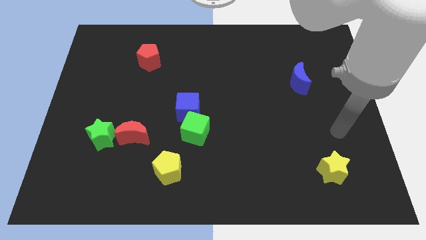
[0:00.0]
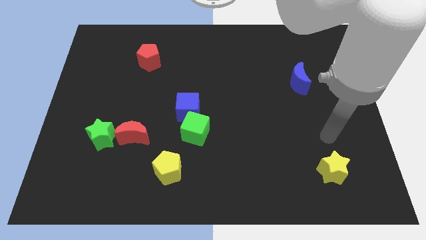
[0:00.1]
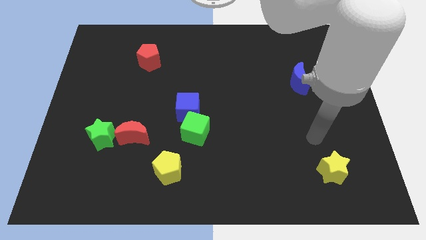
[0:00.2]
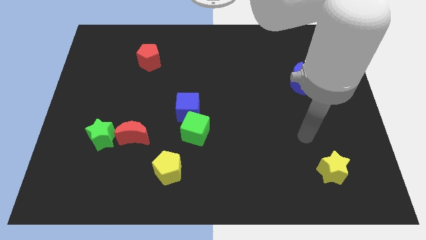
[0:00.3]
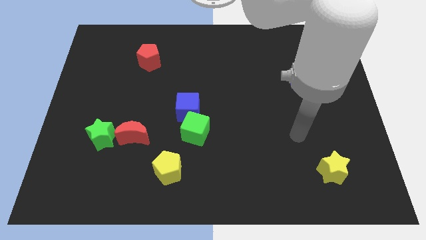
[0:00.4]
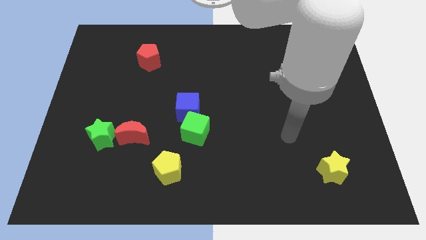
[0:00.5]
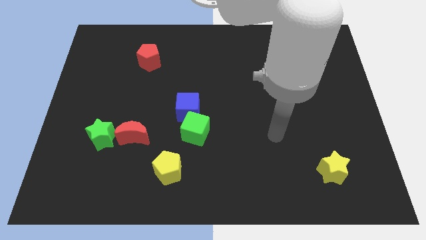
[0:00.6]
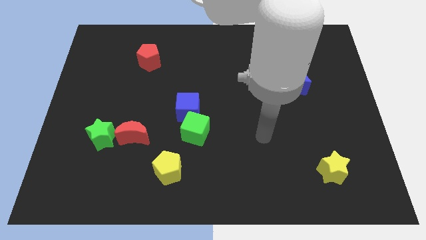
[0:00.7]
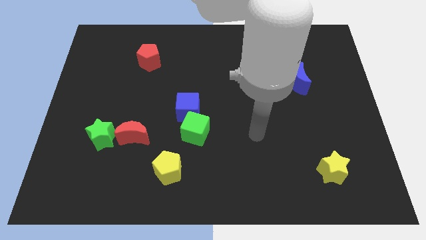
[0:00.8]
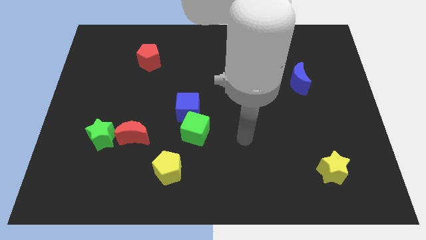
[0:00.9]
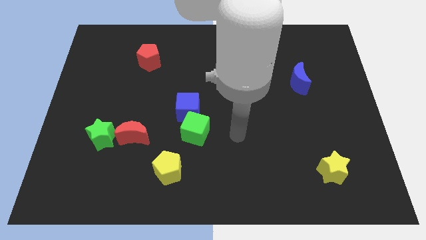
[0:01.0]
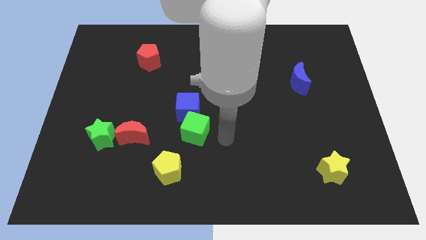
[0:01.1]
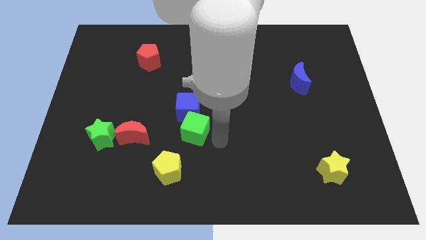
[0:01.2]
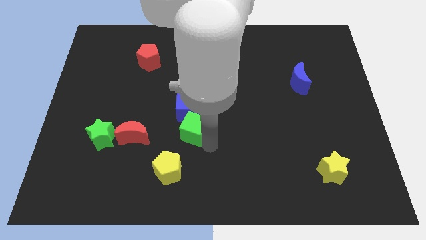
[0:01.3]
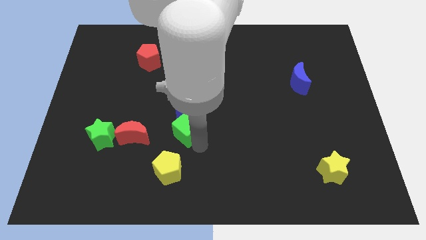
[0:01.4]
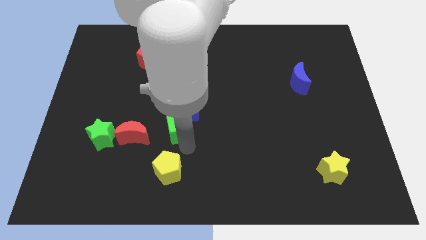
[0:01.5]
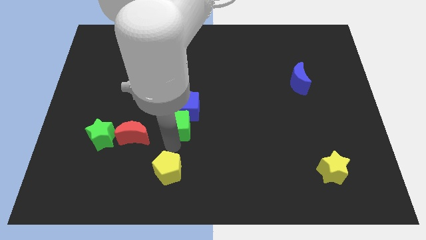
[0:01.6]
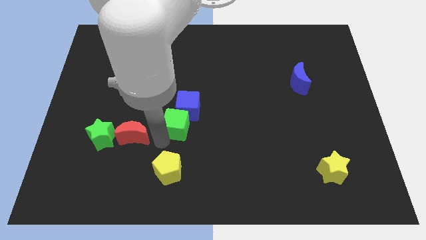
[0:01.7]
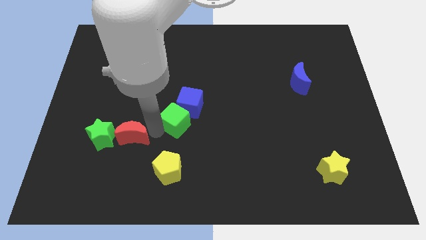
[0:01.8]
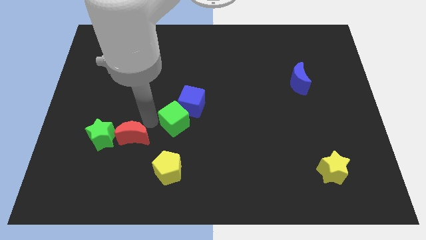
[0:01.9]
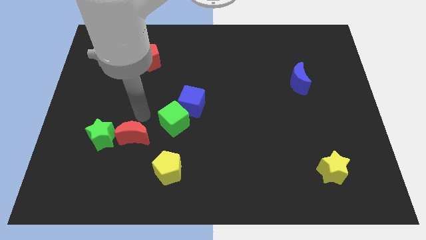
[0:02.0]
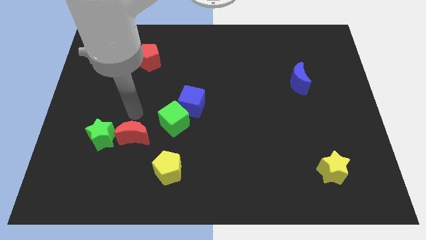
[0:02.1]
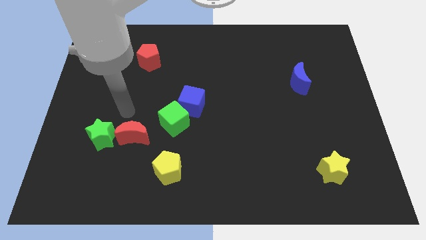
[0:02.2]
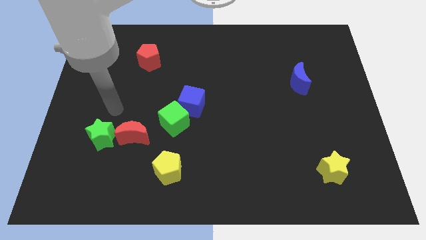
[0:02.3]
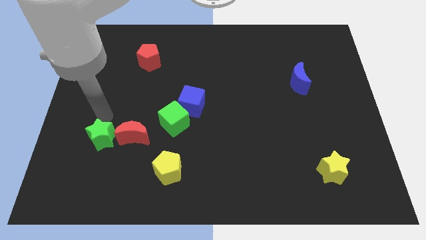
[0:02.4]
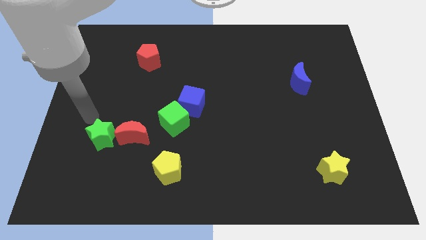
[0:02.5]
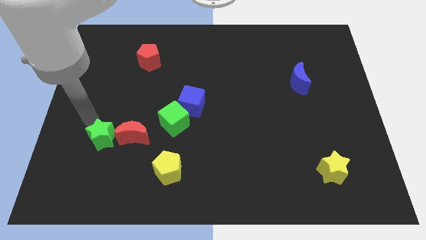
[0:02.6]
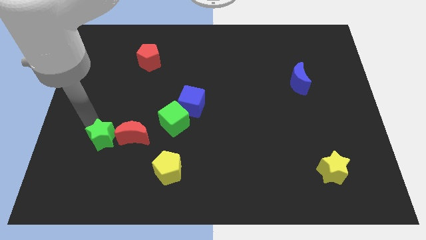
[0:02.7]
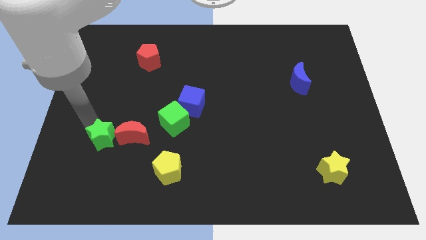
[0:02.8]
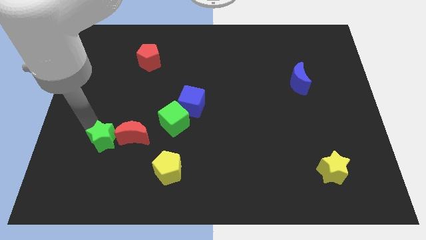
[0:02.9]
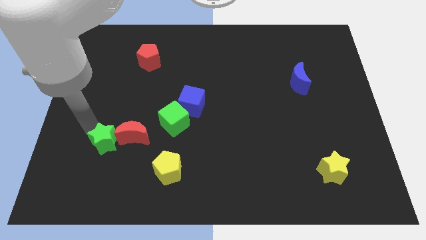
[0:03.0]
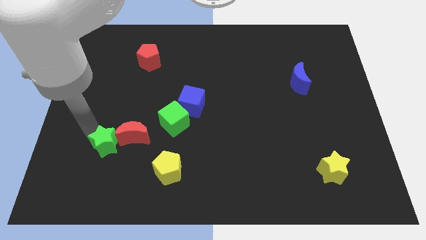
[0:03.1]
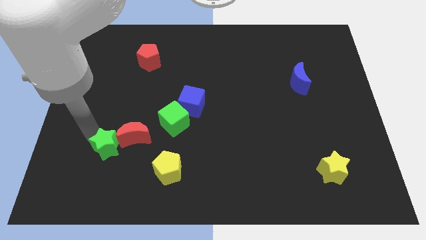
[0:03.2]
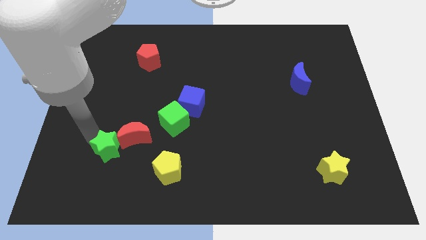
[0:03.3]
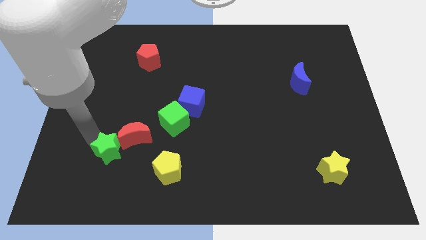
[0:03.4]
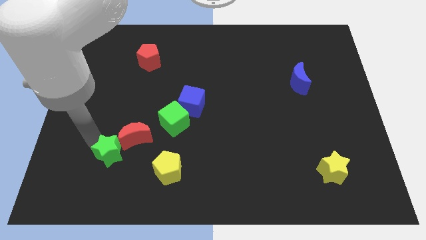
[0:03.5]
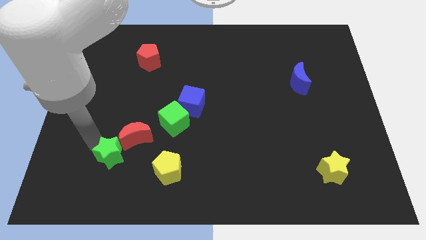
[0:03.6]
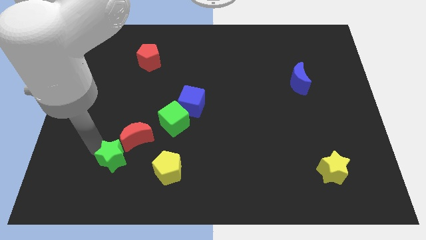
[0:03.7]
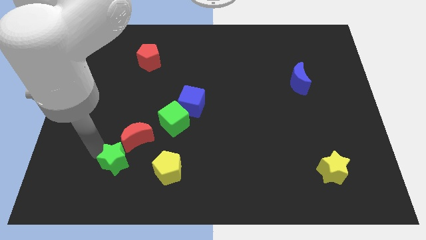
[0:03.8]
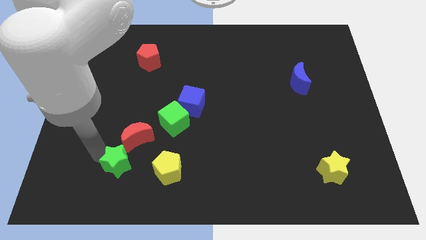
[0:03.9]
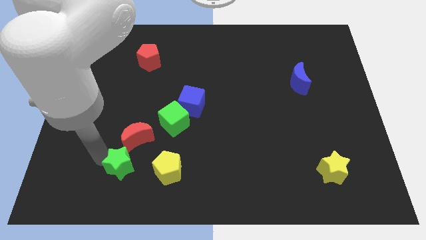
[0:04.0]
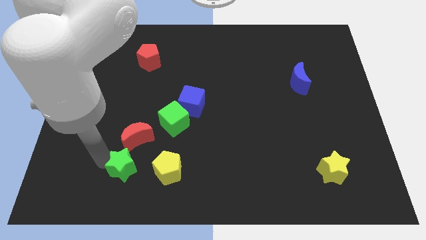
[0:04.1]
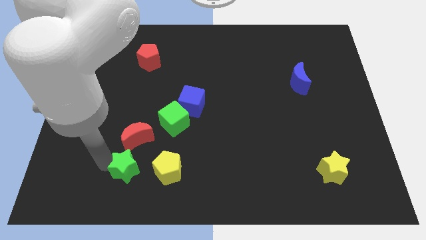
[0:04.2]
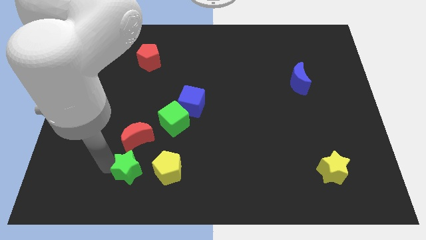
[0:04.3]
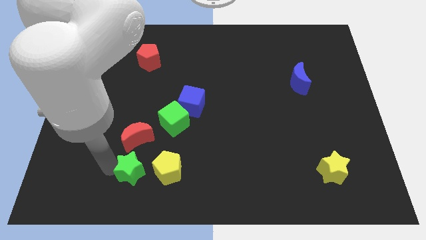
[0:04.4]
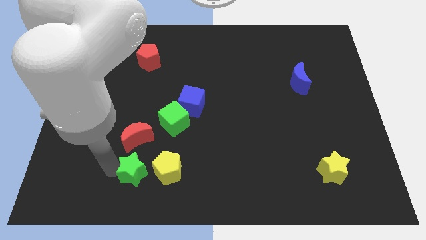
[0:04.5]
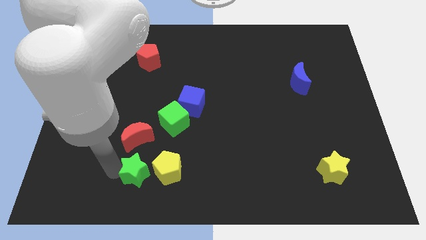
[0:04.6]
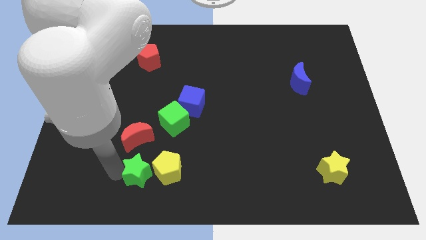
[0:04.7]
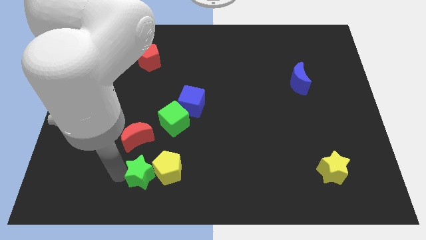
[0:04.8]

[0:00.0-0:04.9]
put the green star towards the yellow pentagon

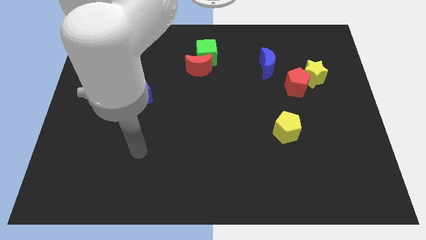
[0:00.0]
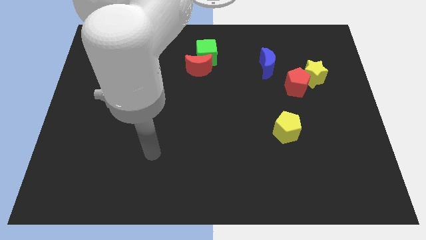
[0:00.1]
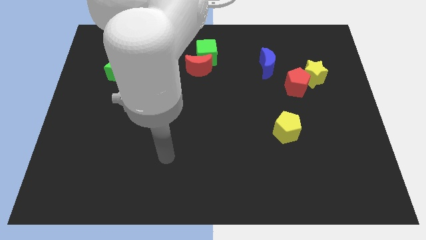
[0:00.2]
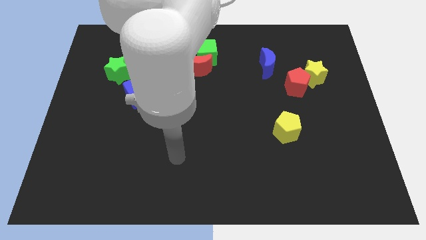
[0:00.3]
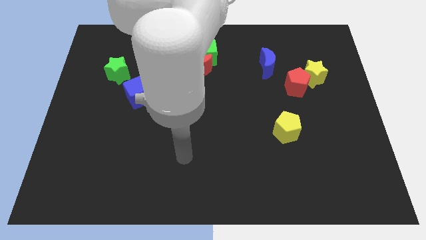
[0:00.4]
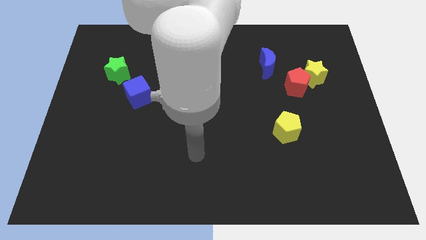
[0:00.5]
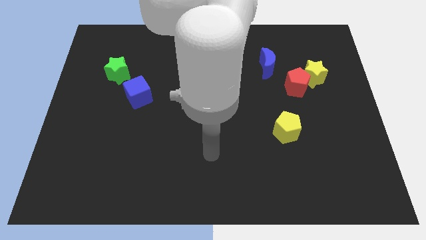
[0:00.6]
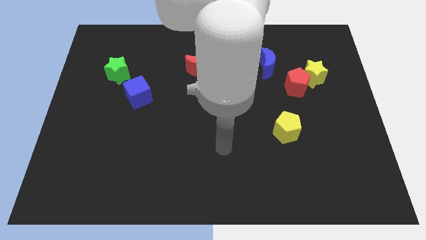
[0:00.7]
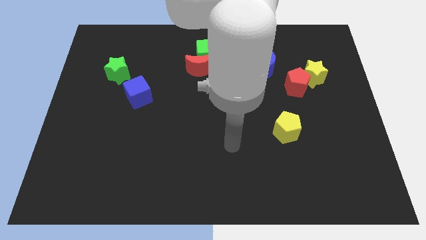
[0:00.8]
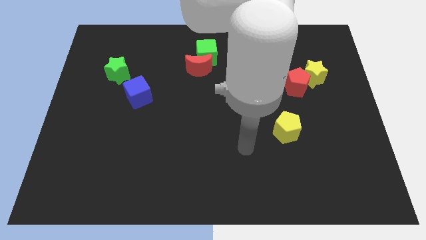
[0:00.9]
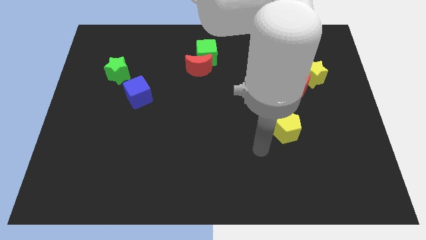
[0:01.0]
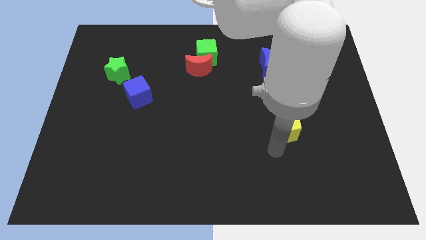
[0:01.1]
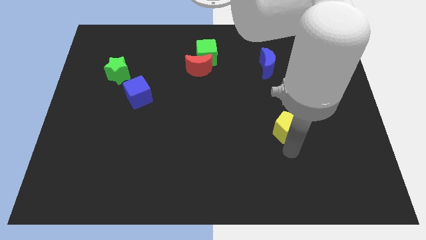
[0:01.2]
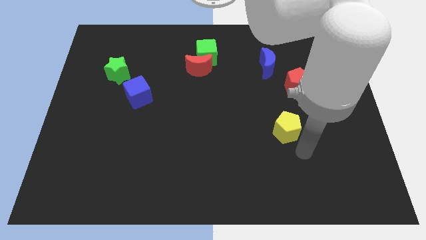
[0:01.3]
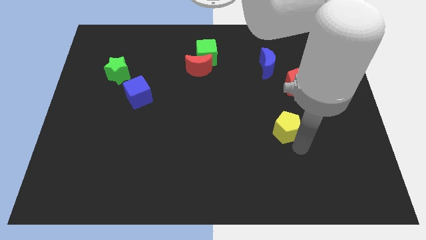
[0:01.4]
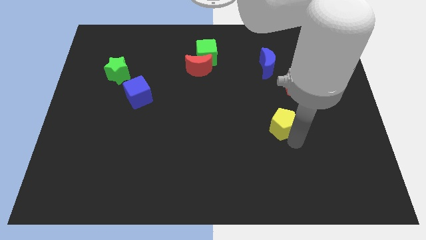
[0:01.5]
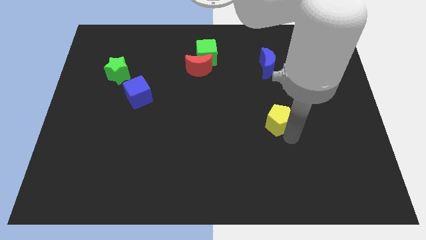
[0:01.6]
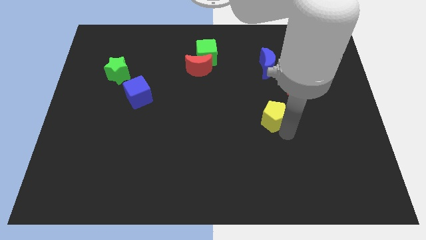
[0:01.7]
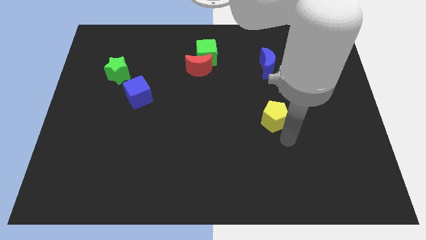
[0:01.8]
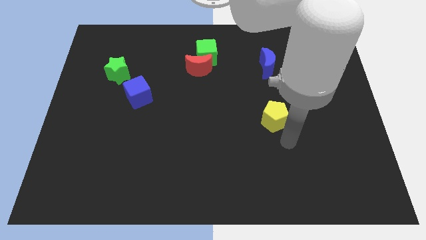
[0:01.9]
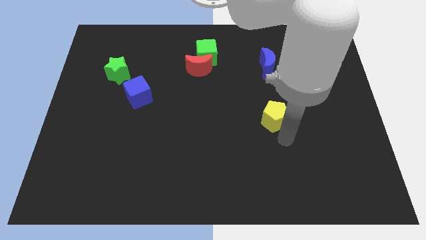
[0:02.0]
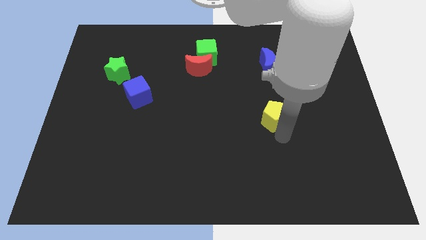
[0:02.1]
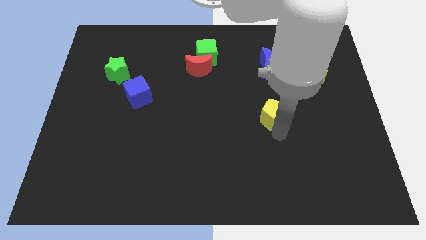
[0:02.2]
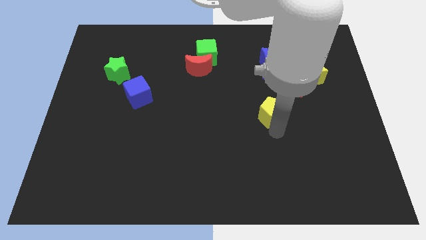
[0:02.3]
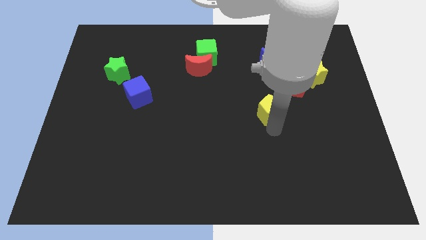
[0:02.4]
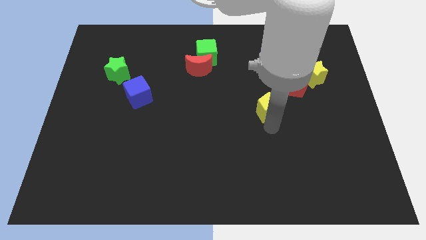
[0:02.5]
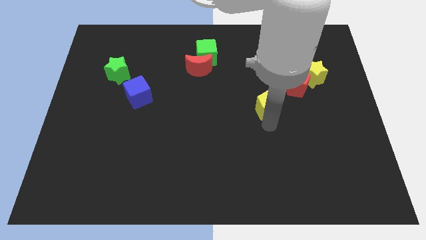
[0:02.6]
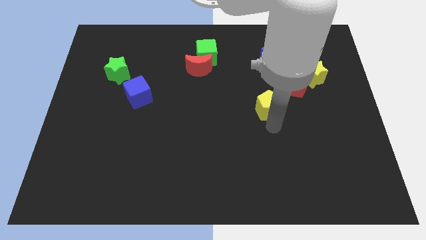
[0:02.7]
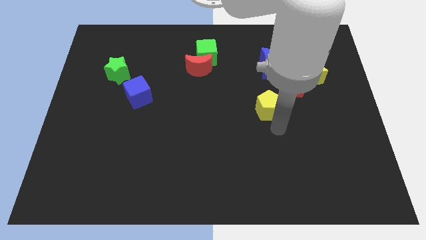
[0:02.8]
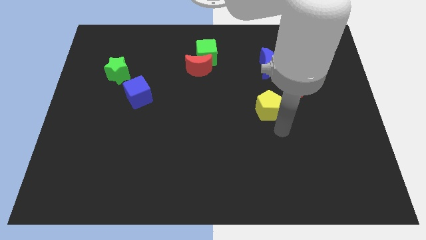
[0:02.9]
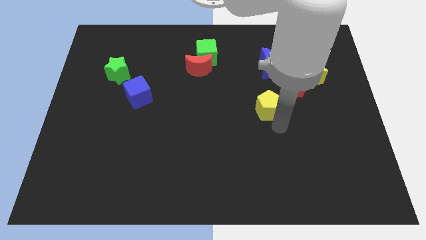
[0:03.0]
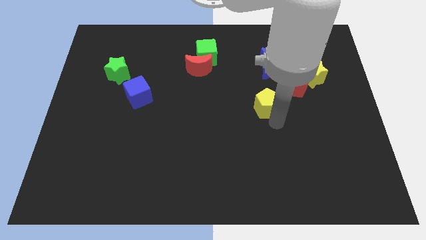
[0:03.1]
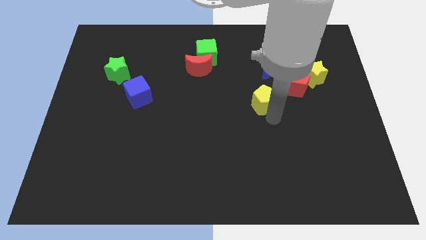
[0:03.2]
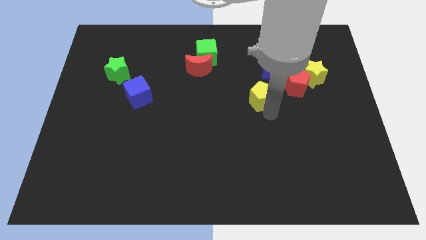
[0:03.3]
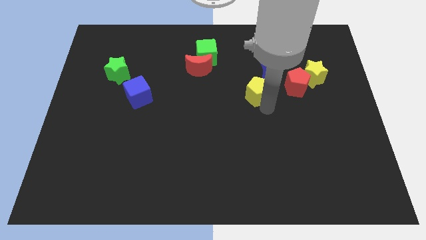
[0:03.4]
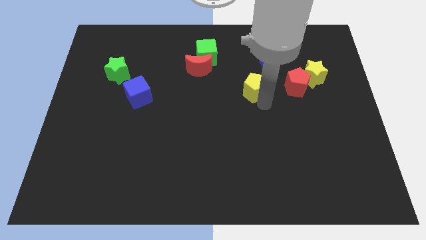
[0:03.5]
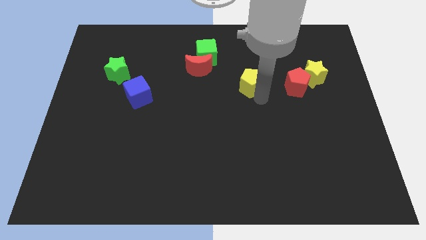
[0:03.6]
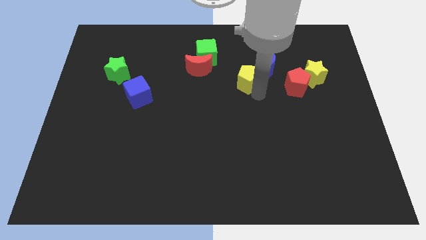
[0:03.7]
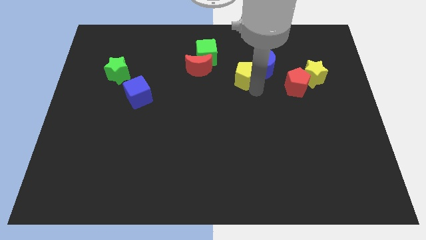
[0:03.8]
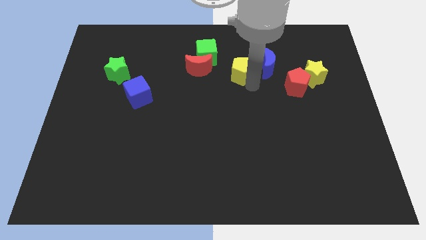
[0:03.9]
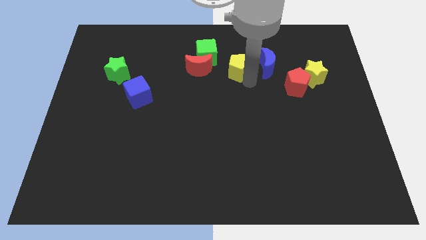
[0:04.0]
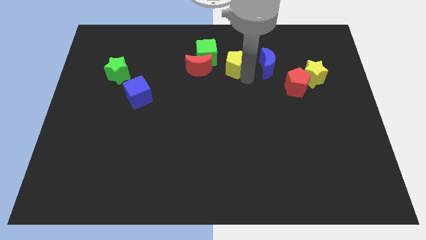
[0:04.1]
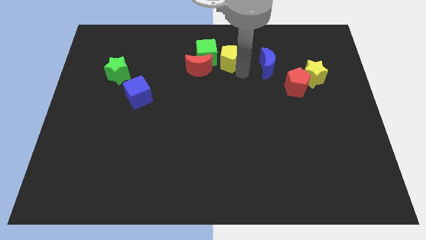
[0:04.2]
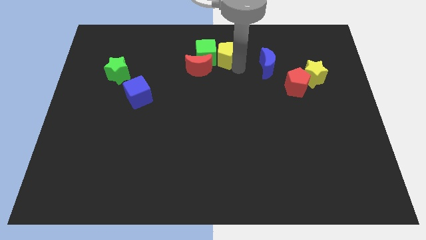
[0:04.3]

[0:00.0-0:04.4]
push the yellow pentagon to the green cube
